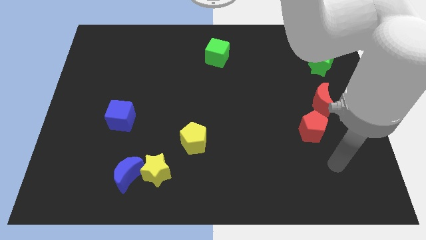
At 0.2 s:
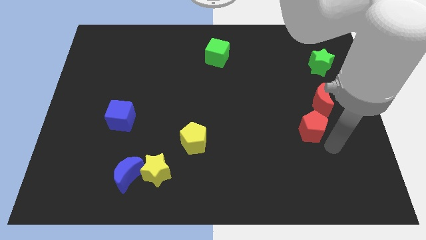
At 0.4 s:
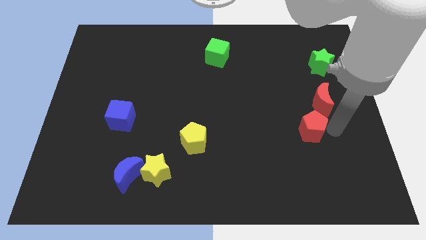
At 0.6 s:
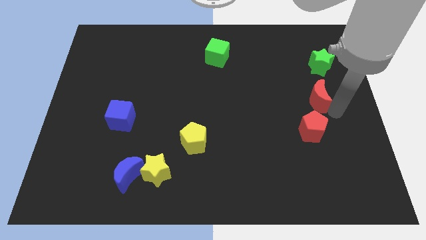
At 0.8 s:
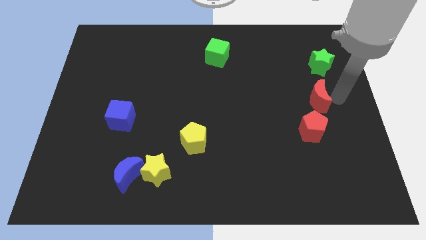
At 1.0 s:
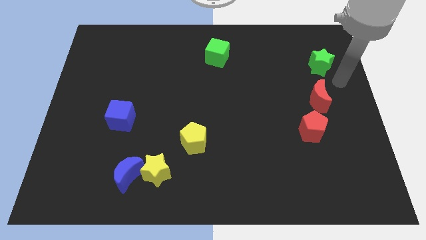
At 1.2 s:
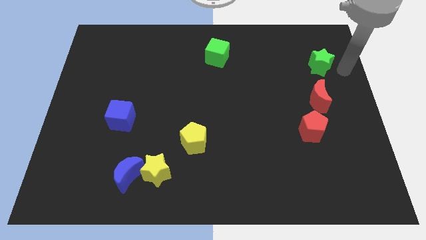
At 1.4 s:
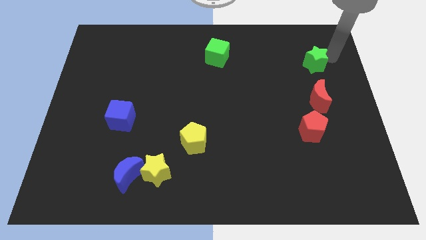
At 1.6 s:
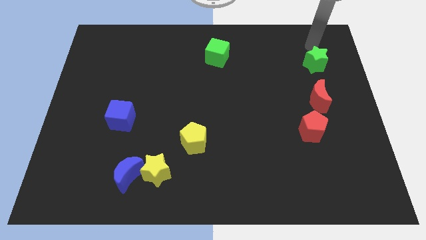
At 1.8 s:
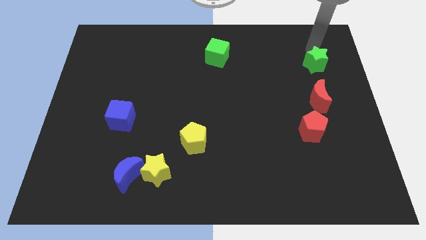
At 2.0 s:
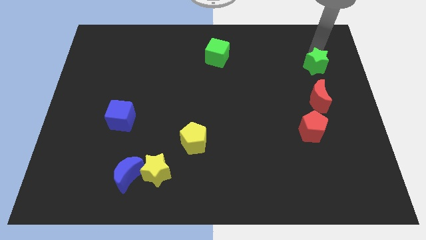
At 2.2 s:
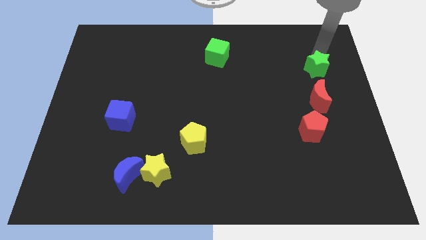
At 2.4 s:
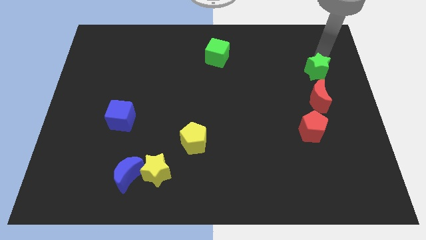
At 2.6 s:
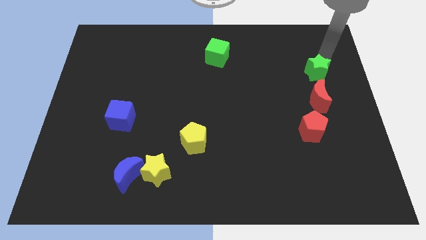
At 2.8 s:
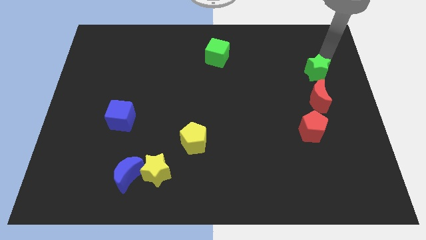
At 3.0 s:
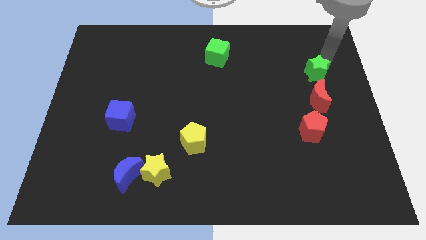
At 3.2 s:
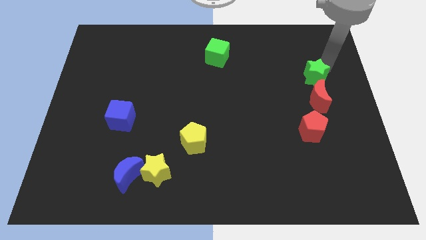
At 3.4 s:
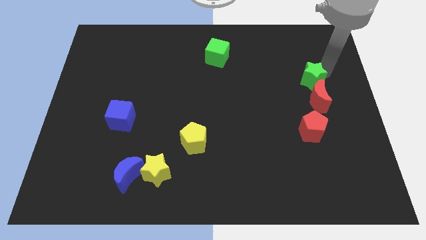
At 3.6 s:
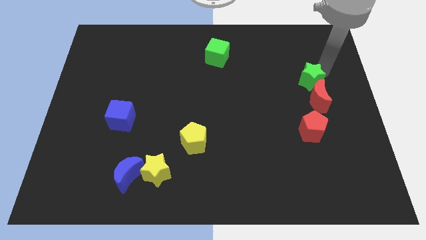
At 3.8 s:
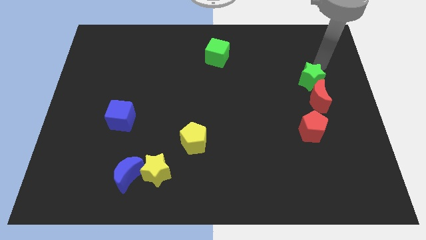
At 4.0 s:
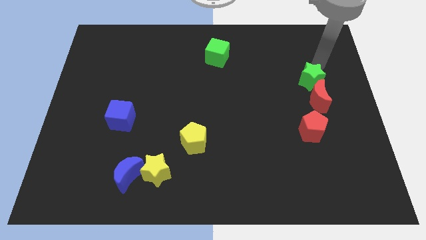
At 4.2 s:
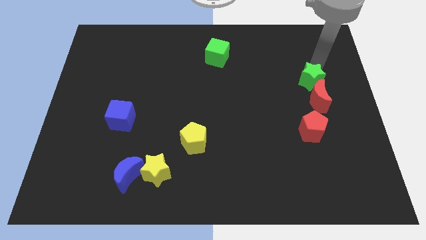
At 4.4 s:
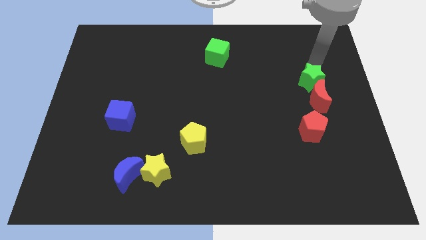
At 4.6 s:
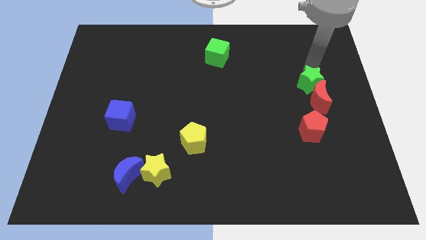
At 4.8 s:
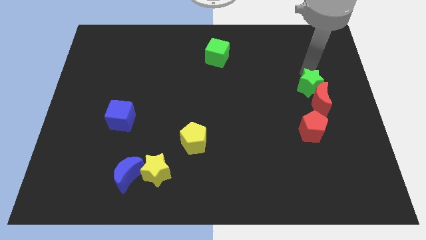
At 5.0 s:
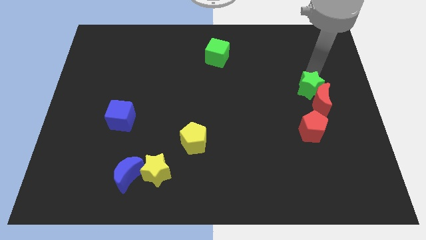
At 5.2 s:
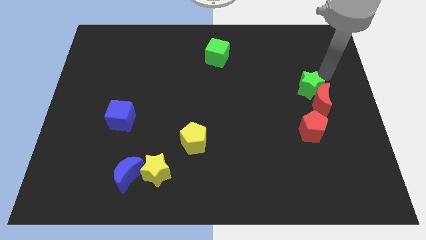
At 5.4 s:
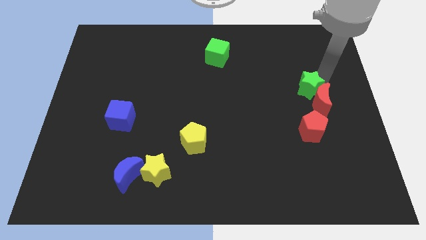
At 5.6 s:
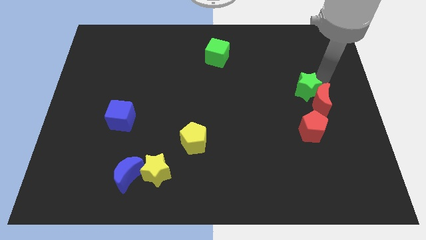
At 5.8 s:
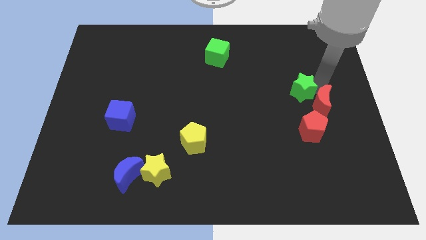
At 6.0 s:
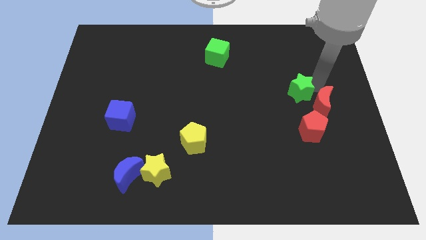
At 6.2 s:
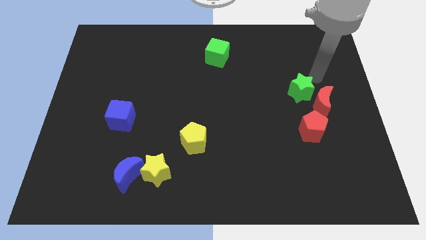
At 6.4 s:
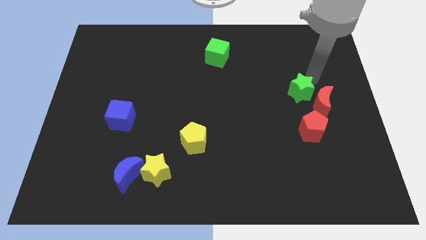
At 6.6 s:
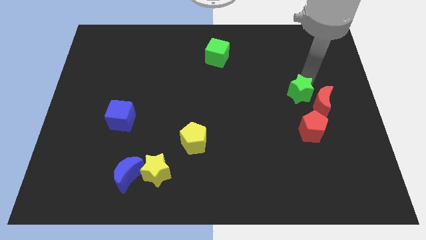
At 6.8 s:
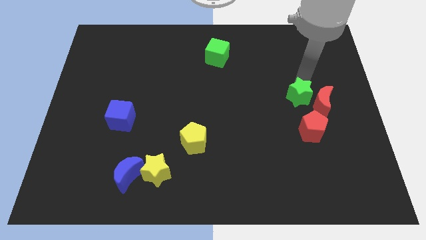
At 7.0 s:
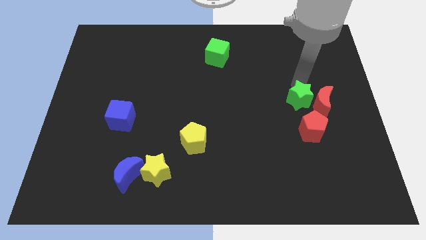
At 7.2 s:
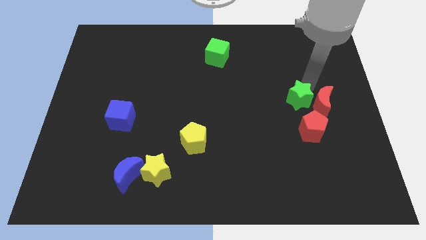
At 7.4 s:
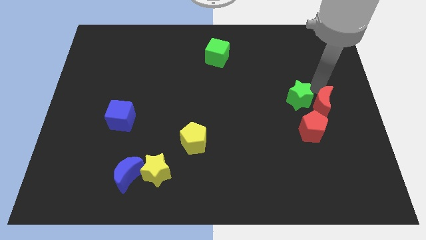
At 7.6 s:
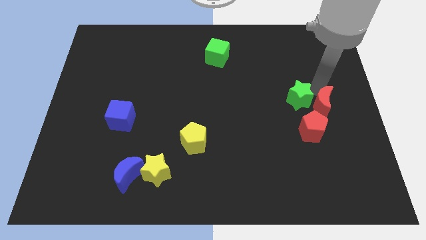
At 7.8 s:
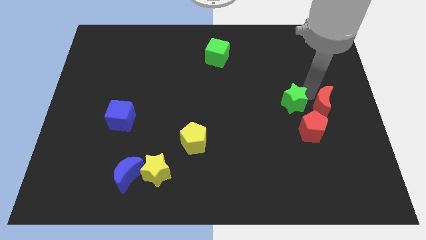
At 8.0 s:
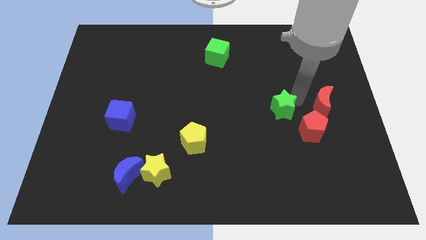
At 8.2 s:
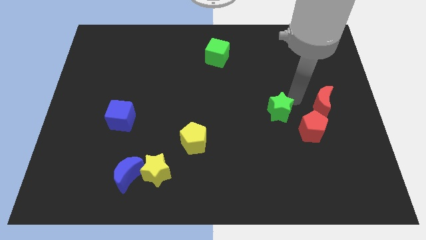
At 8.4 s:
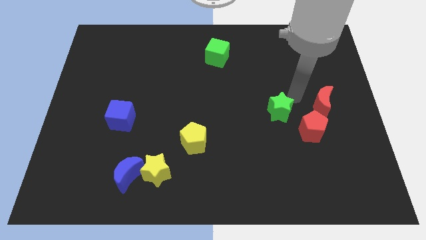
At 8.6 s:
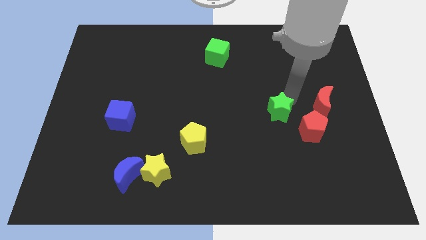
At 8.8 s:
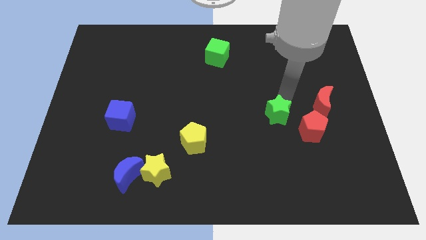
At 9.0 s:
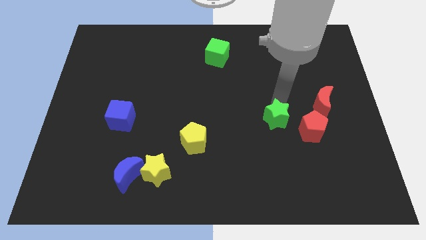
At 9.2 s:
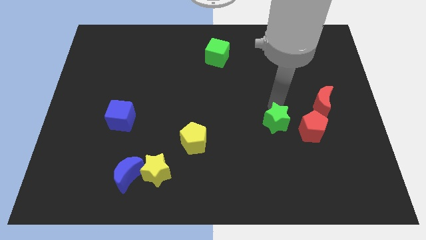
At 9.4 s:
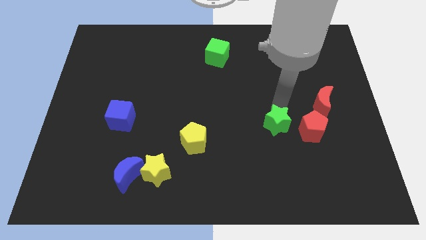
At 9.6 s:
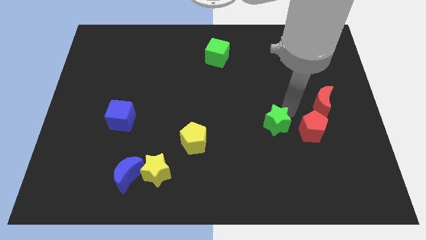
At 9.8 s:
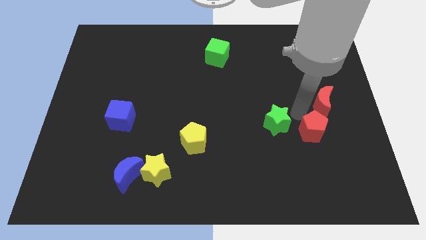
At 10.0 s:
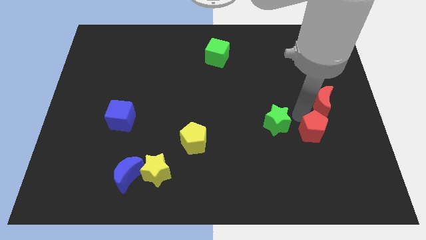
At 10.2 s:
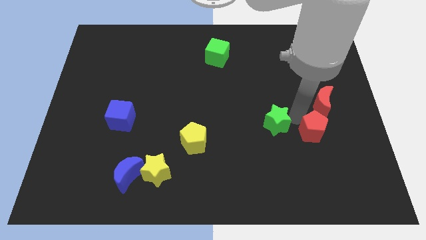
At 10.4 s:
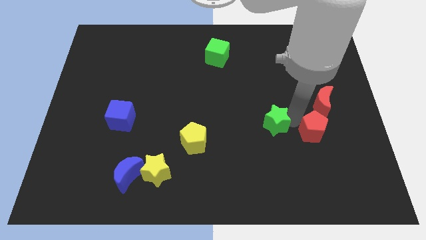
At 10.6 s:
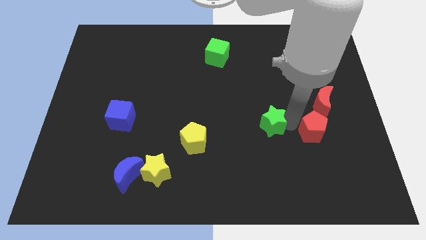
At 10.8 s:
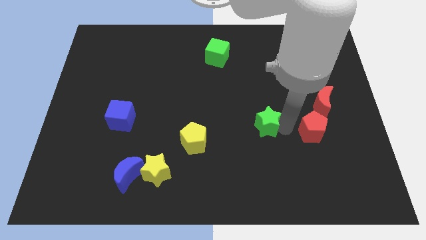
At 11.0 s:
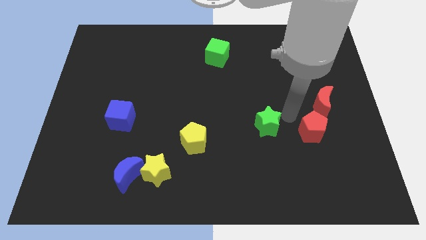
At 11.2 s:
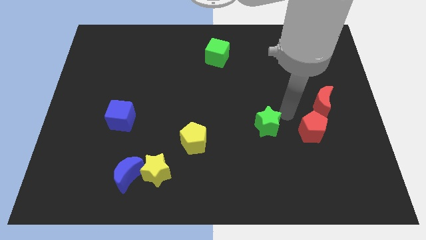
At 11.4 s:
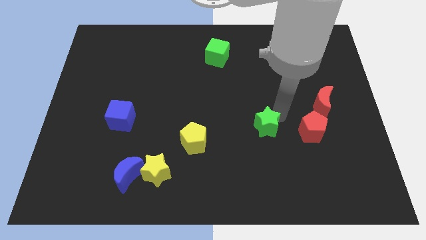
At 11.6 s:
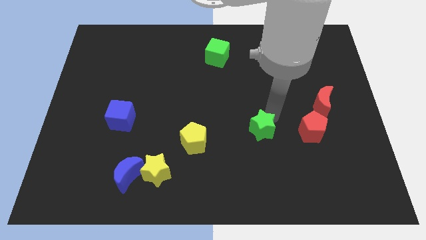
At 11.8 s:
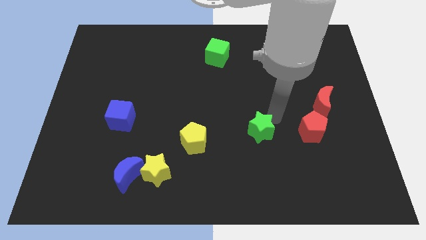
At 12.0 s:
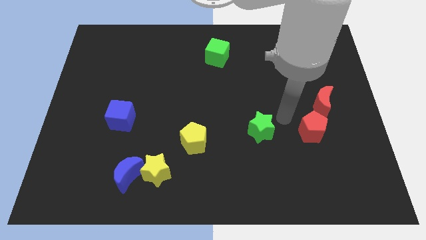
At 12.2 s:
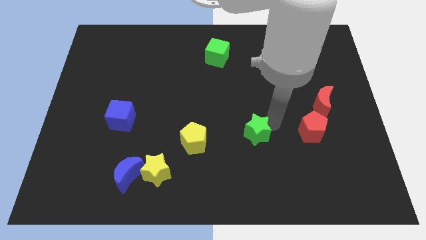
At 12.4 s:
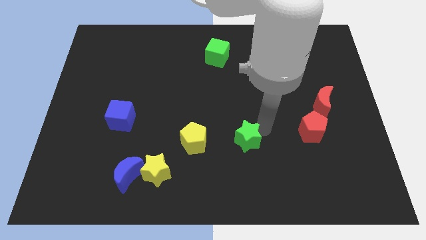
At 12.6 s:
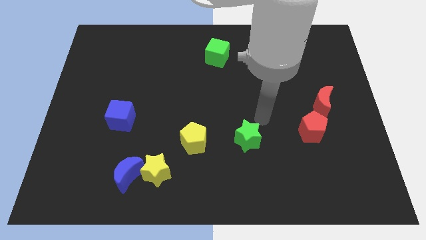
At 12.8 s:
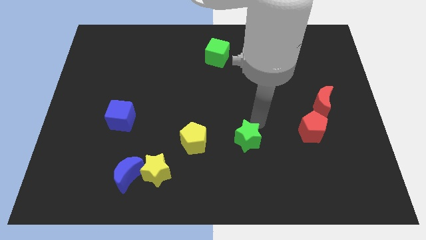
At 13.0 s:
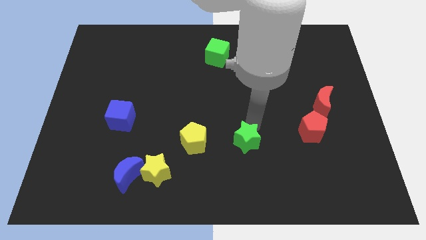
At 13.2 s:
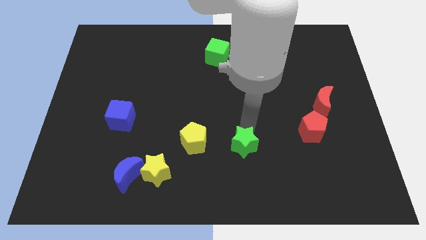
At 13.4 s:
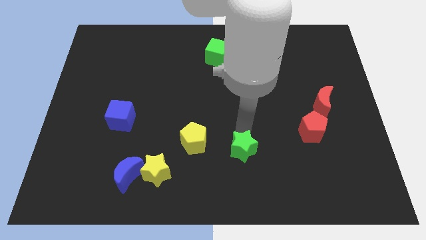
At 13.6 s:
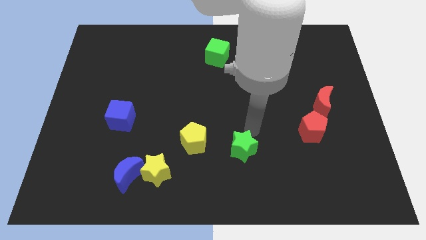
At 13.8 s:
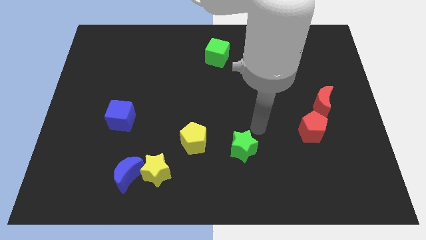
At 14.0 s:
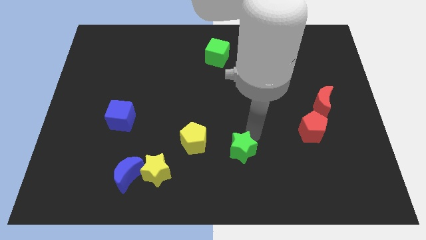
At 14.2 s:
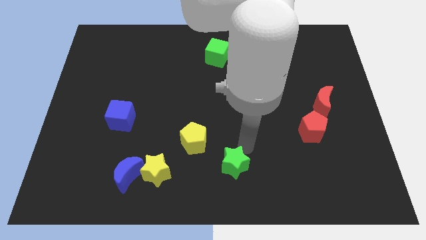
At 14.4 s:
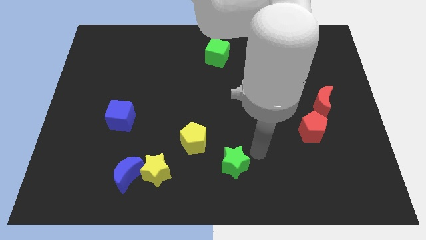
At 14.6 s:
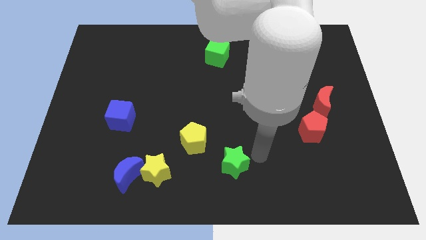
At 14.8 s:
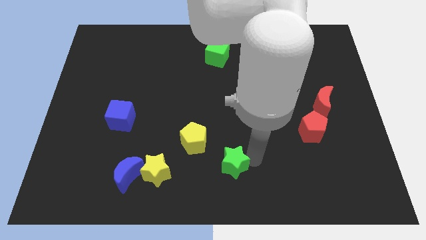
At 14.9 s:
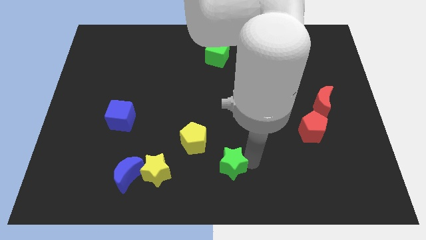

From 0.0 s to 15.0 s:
slide the green star right of the yellow star
